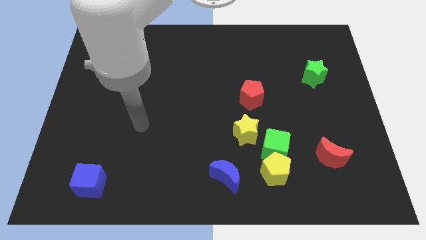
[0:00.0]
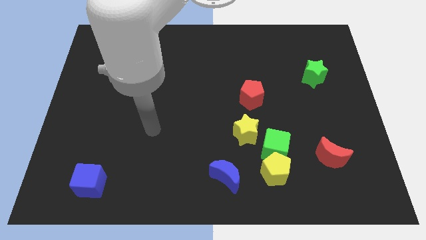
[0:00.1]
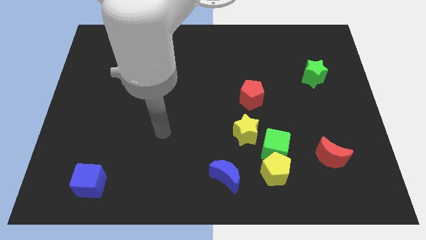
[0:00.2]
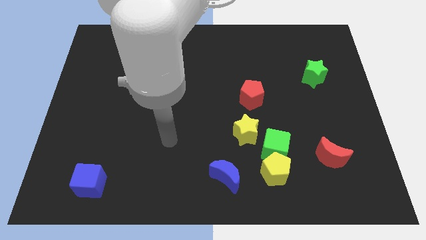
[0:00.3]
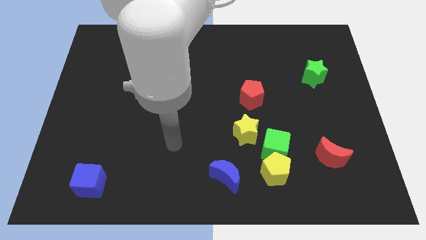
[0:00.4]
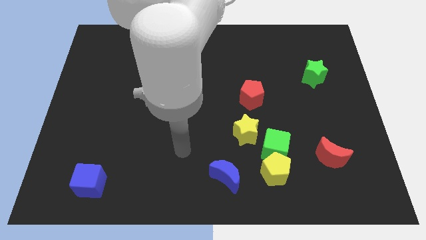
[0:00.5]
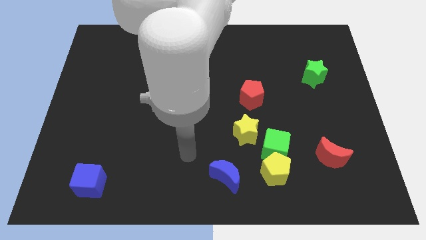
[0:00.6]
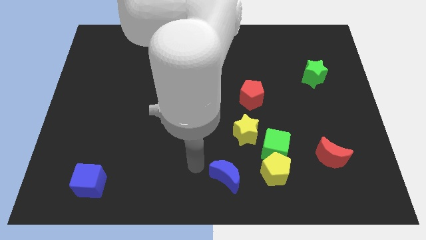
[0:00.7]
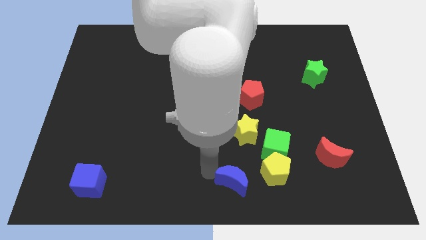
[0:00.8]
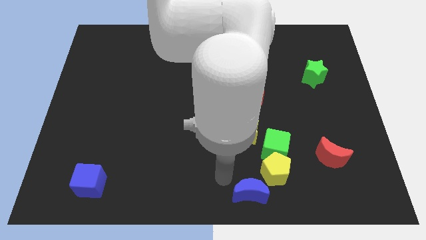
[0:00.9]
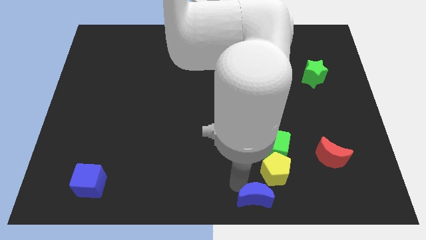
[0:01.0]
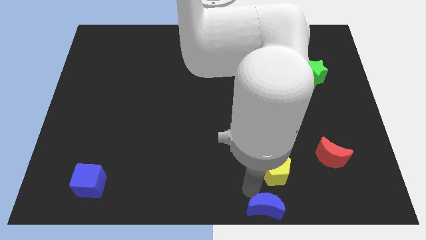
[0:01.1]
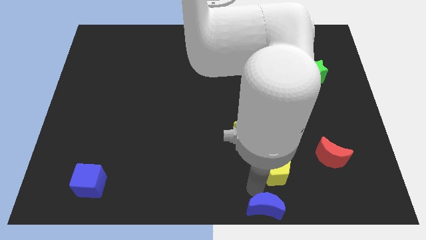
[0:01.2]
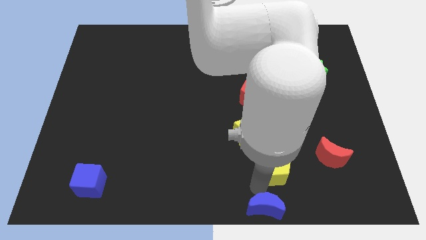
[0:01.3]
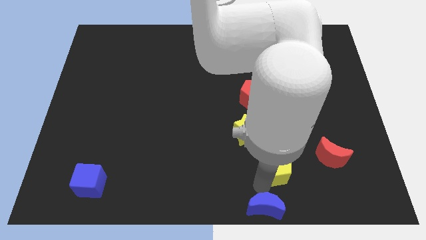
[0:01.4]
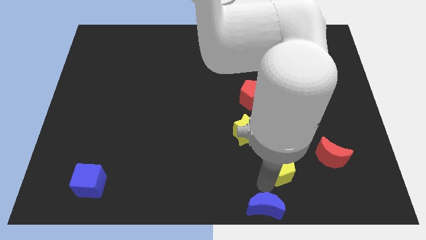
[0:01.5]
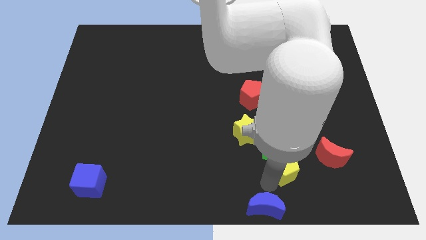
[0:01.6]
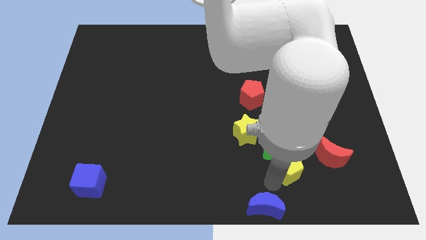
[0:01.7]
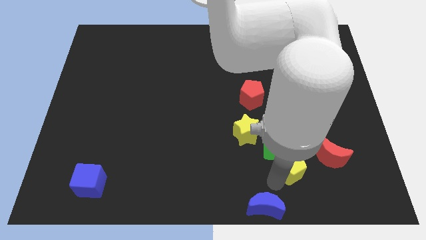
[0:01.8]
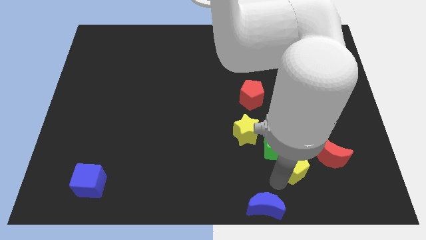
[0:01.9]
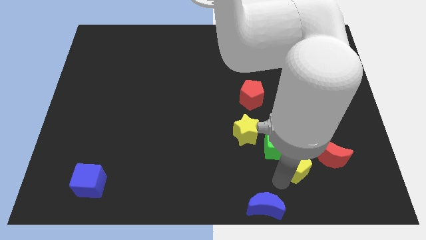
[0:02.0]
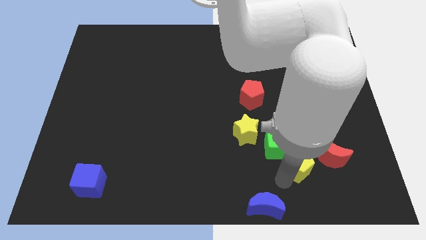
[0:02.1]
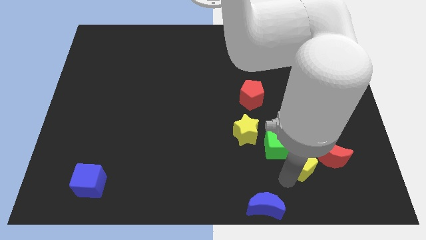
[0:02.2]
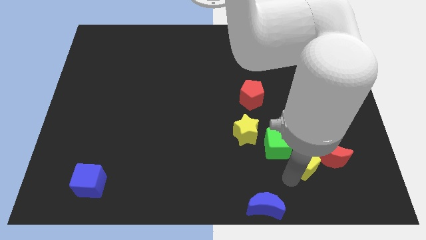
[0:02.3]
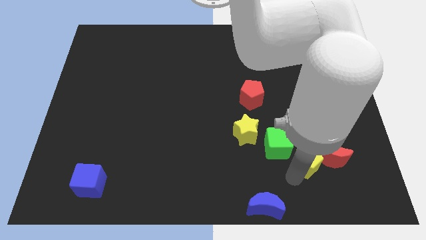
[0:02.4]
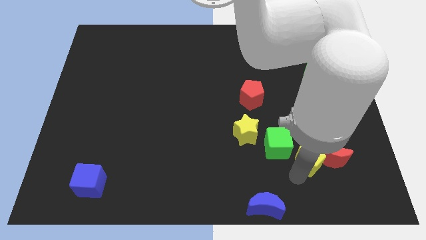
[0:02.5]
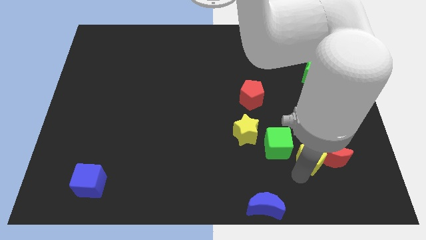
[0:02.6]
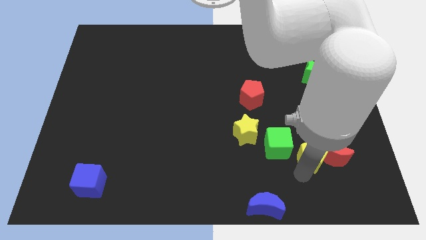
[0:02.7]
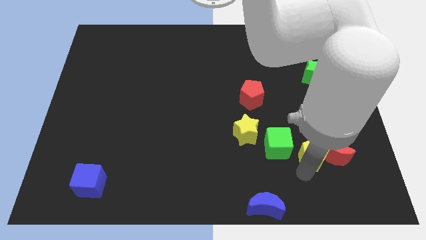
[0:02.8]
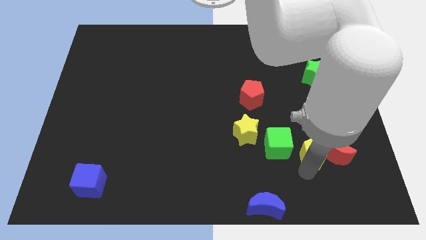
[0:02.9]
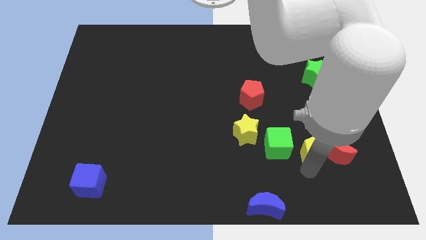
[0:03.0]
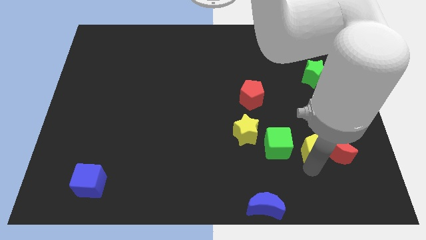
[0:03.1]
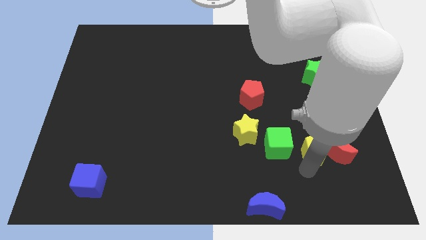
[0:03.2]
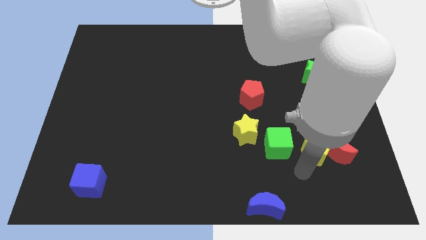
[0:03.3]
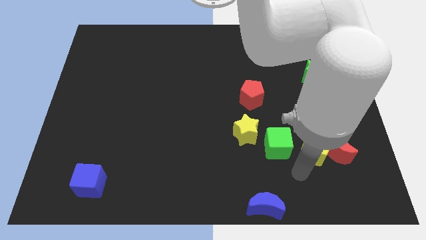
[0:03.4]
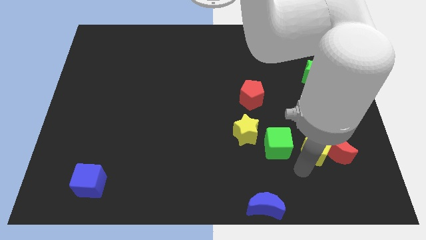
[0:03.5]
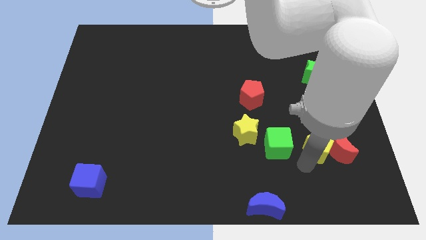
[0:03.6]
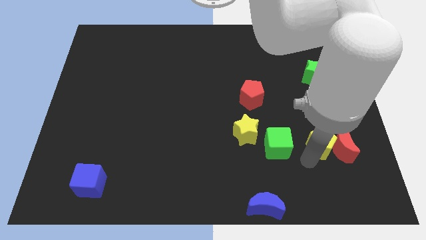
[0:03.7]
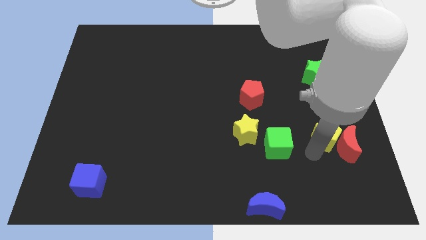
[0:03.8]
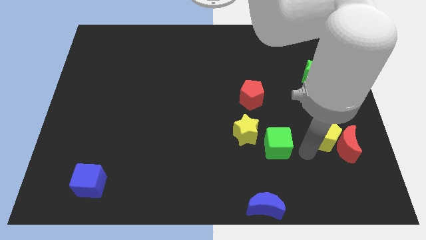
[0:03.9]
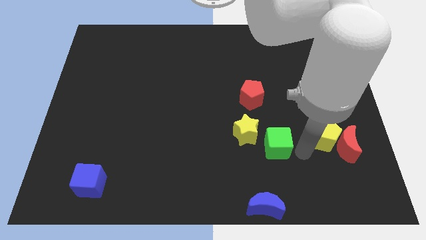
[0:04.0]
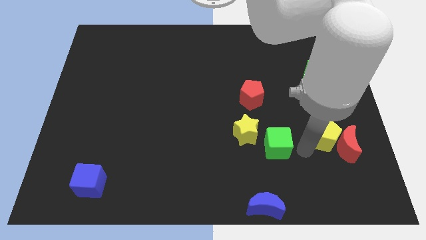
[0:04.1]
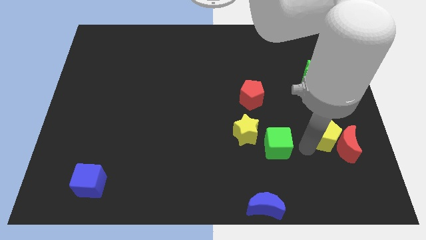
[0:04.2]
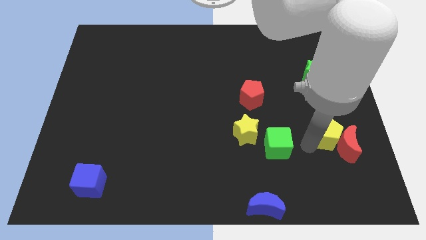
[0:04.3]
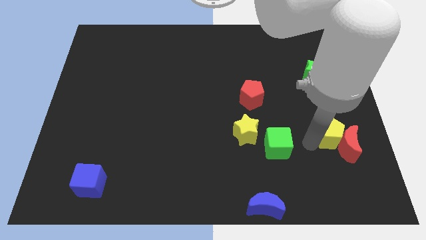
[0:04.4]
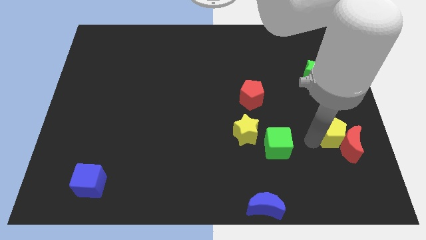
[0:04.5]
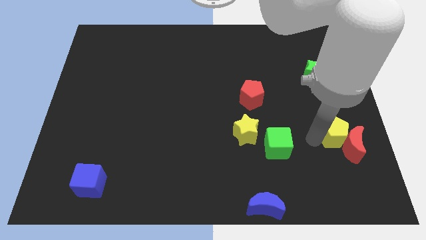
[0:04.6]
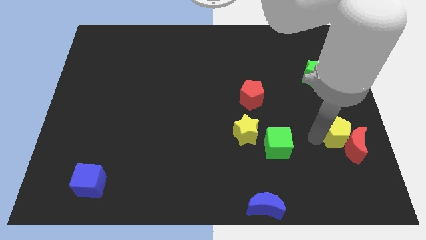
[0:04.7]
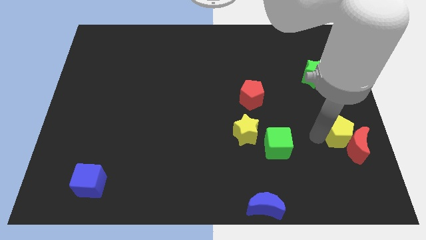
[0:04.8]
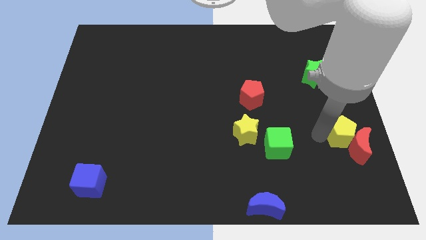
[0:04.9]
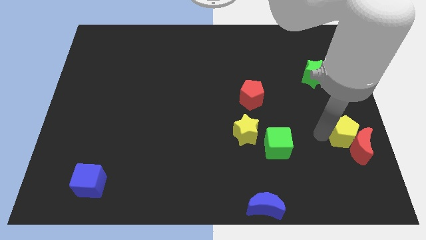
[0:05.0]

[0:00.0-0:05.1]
slide the yellow pentagon to the center right

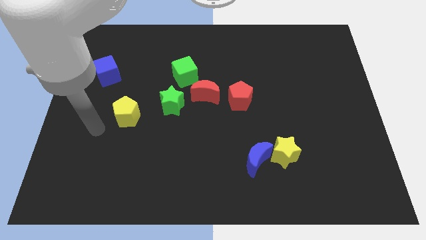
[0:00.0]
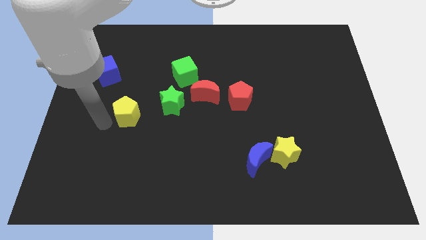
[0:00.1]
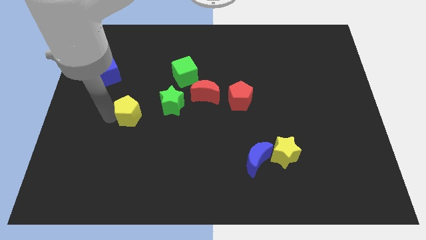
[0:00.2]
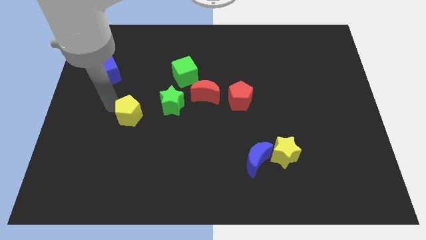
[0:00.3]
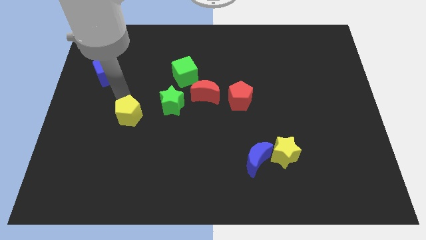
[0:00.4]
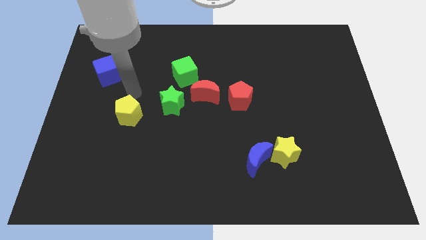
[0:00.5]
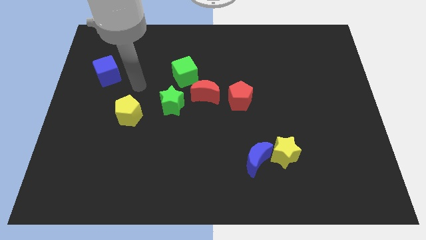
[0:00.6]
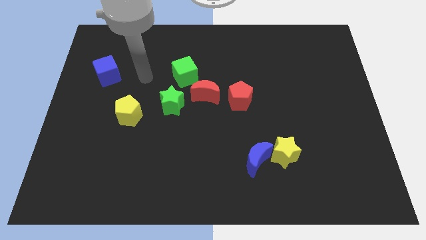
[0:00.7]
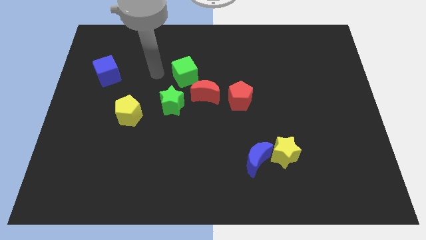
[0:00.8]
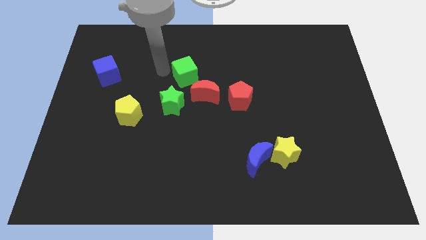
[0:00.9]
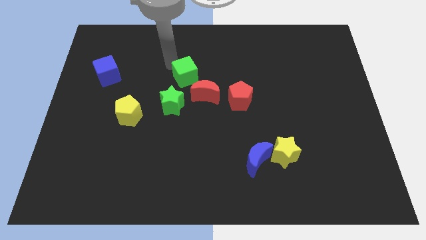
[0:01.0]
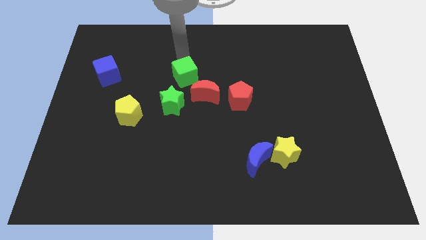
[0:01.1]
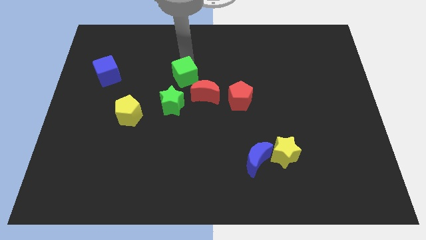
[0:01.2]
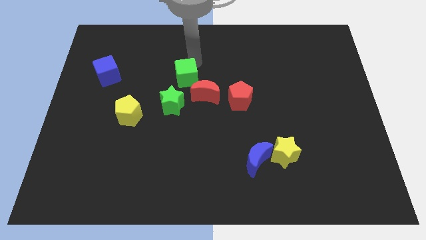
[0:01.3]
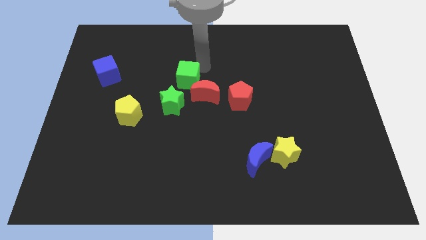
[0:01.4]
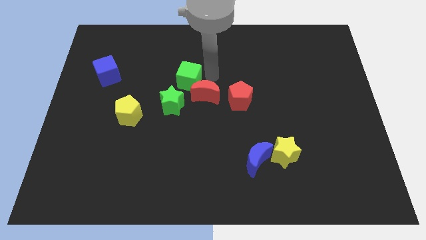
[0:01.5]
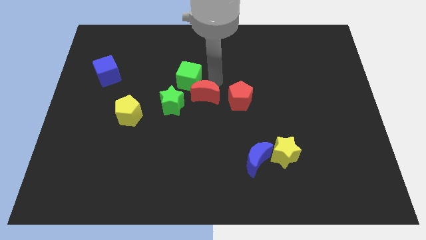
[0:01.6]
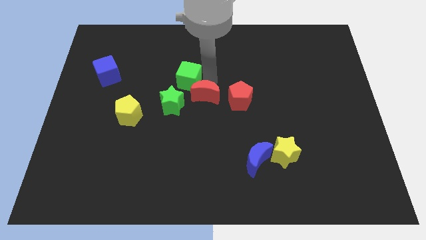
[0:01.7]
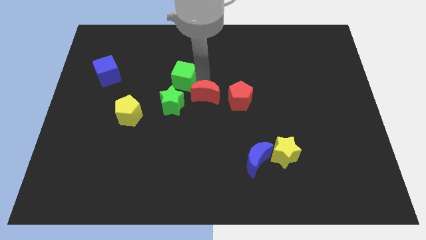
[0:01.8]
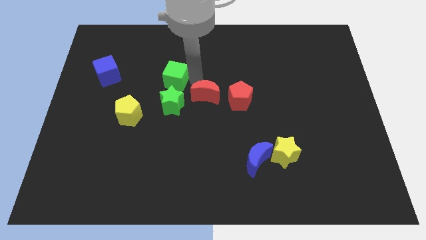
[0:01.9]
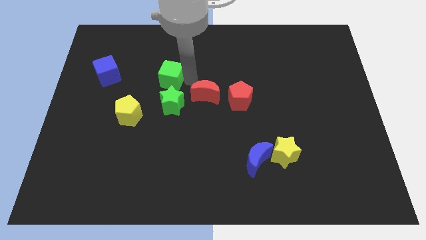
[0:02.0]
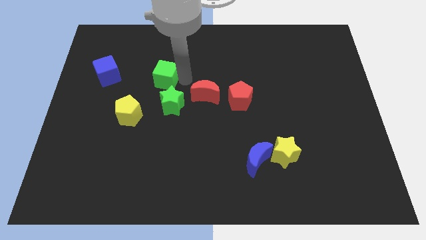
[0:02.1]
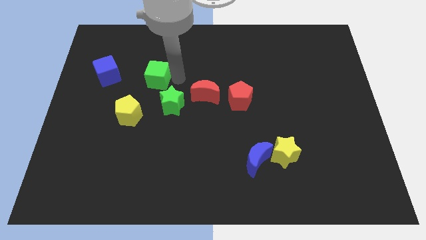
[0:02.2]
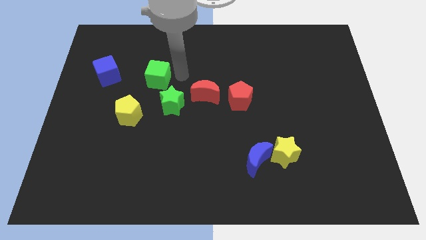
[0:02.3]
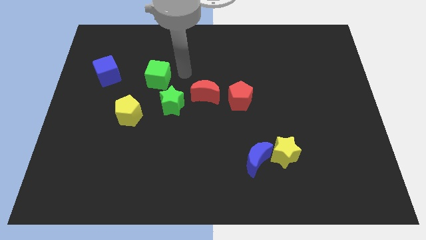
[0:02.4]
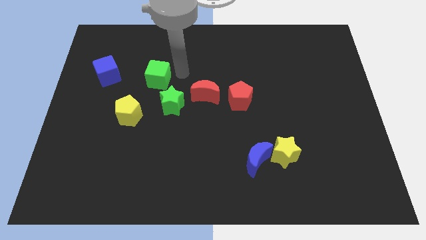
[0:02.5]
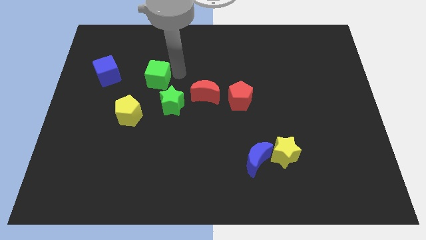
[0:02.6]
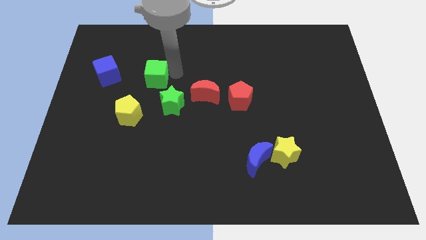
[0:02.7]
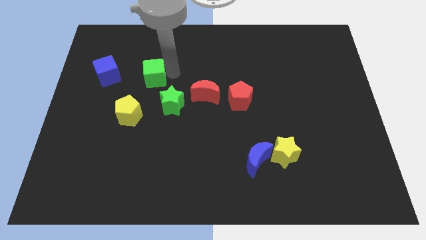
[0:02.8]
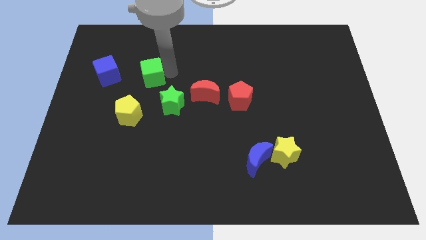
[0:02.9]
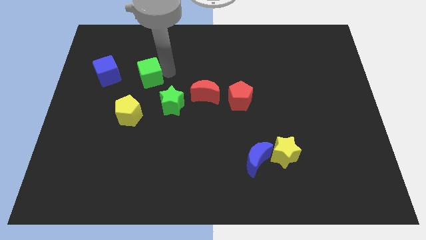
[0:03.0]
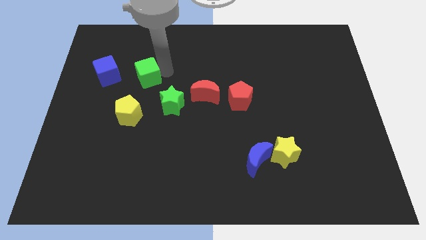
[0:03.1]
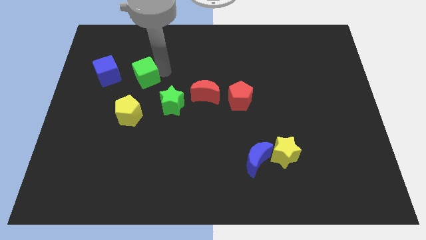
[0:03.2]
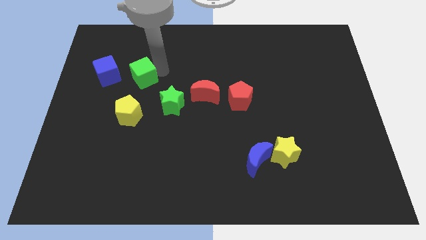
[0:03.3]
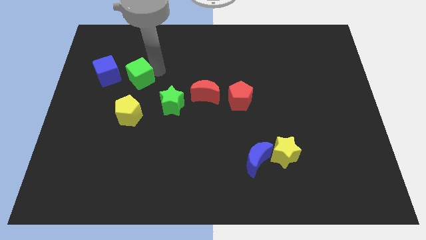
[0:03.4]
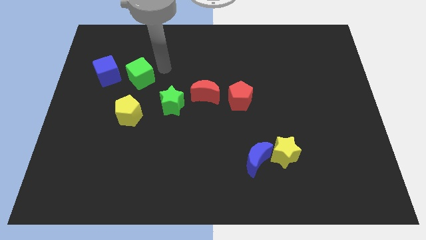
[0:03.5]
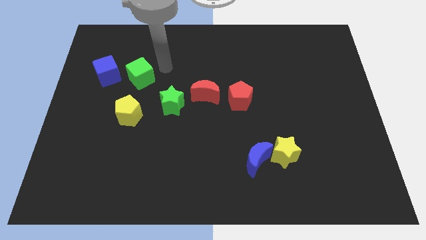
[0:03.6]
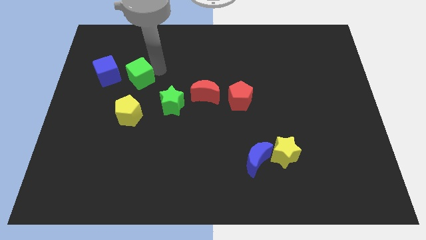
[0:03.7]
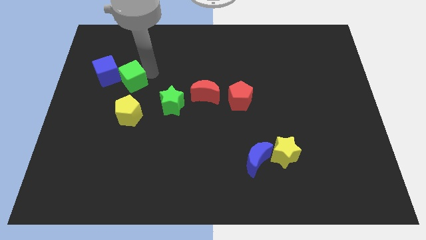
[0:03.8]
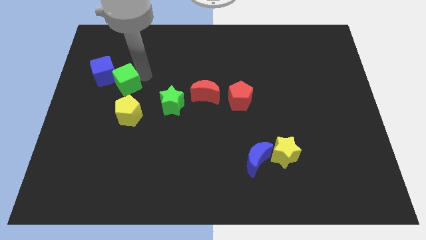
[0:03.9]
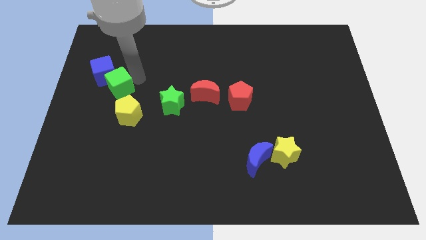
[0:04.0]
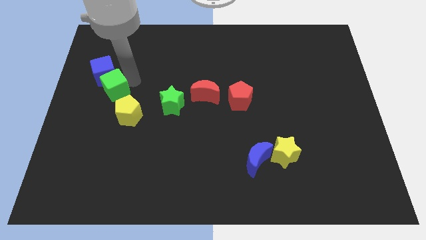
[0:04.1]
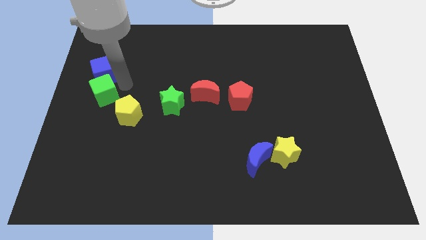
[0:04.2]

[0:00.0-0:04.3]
slide the green cube to the center left
